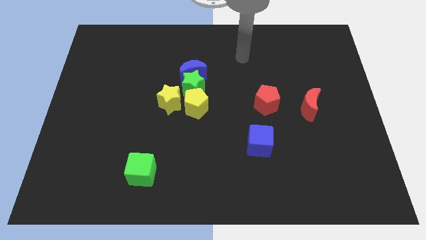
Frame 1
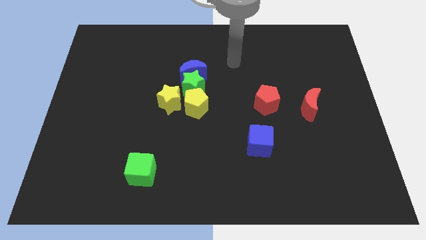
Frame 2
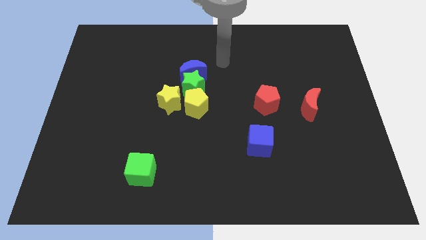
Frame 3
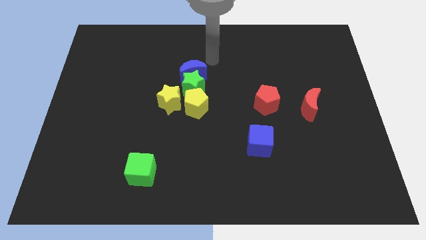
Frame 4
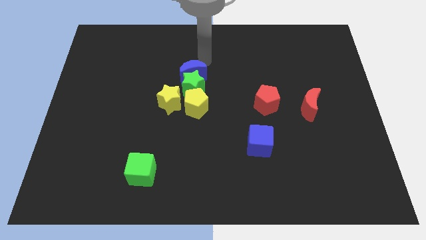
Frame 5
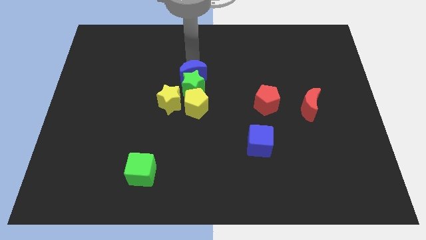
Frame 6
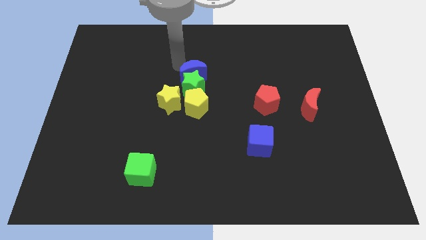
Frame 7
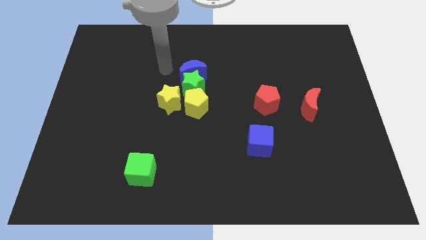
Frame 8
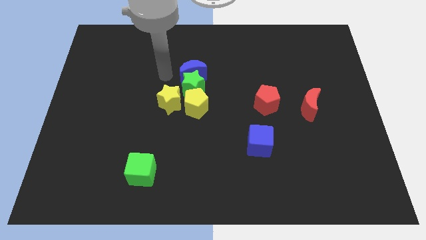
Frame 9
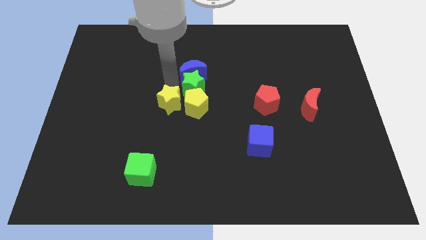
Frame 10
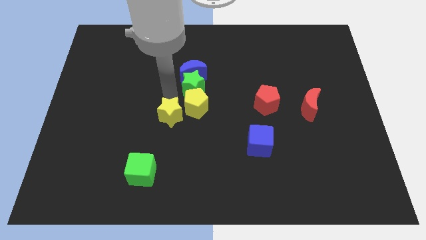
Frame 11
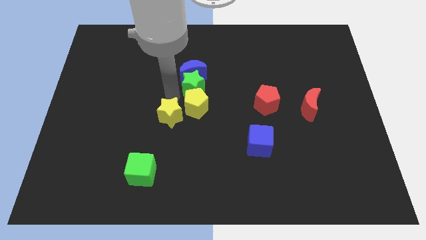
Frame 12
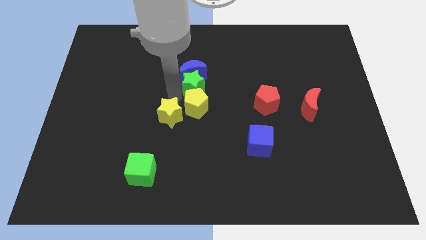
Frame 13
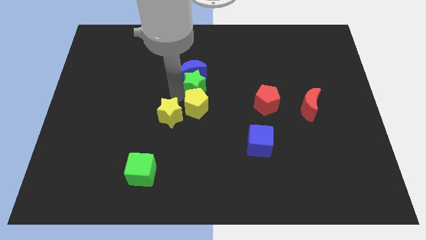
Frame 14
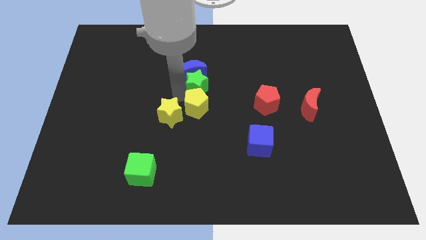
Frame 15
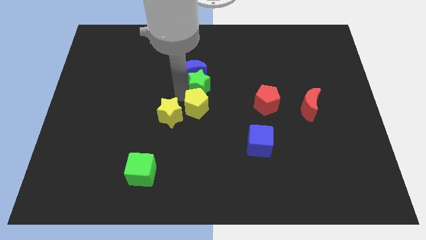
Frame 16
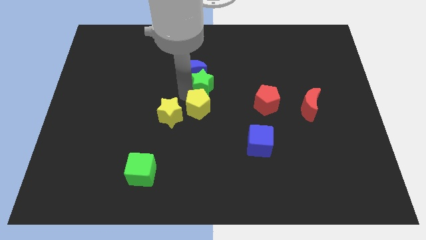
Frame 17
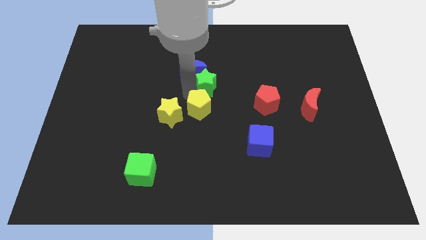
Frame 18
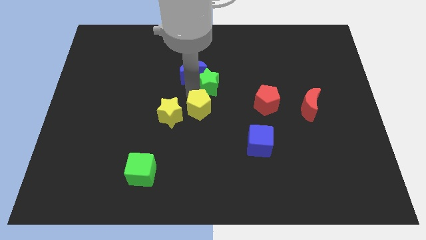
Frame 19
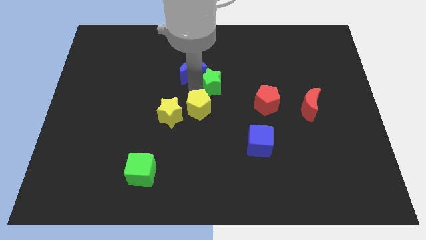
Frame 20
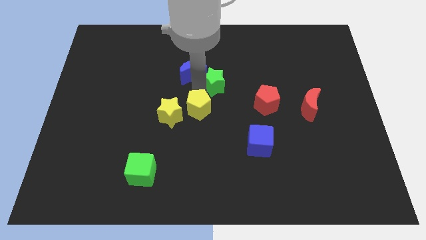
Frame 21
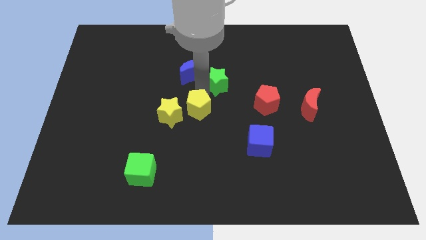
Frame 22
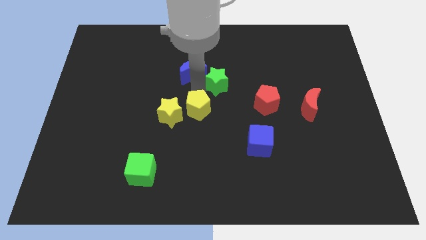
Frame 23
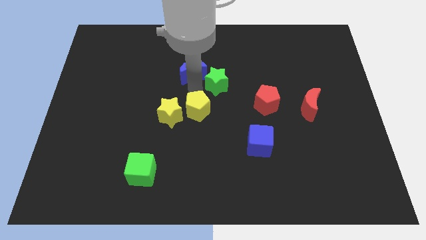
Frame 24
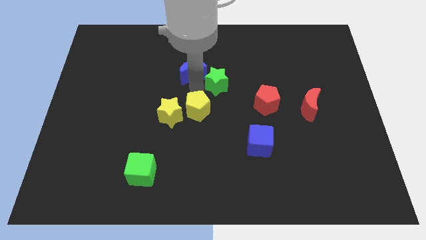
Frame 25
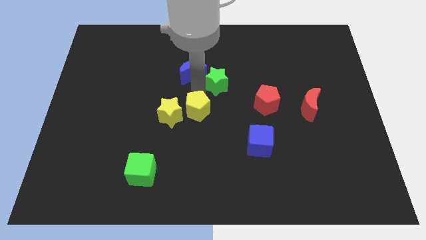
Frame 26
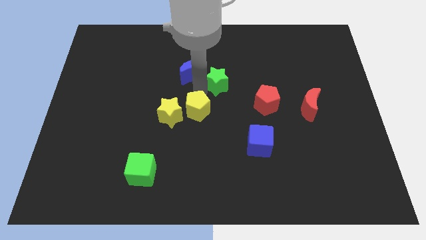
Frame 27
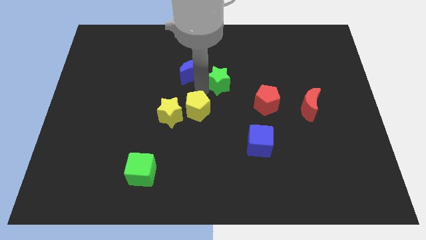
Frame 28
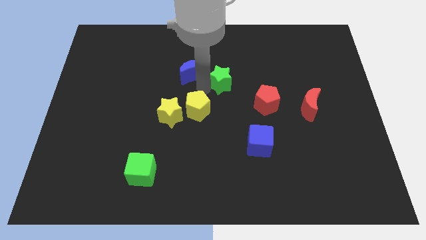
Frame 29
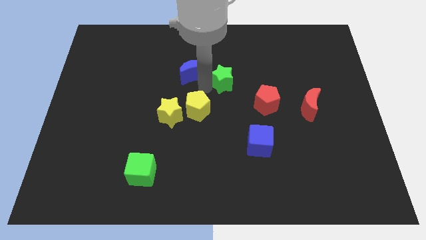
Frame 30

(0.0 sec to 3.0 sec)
pull the green star apart from the blue moon, yellow pentagon, and yellow star

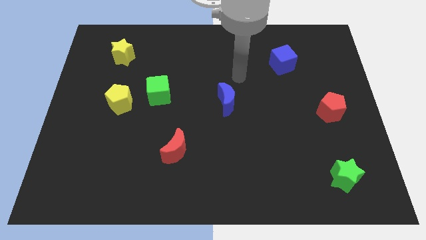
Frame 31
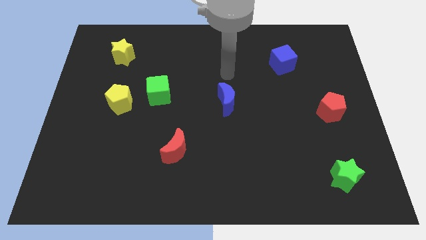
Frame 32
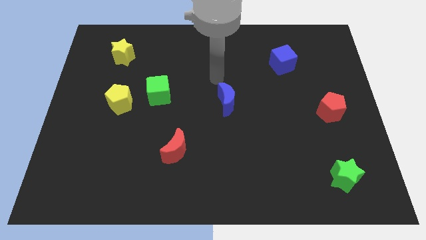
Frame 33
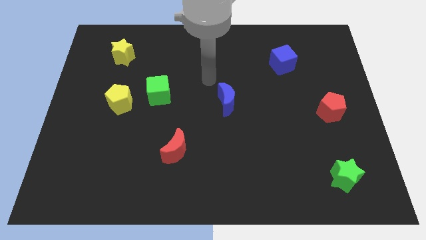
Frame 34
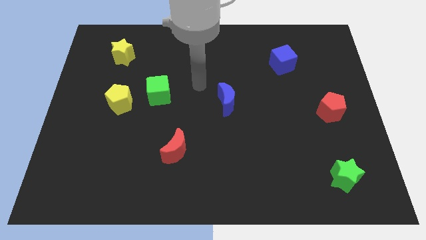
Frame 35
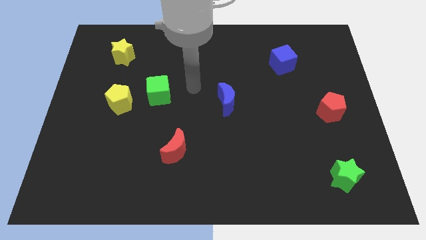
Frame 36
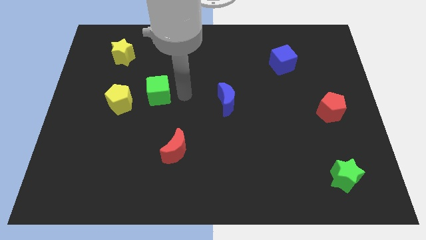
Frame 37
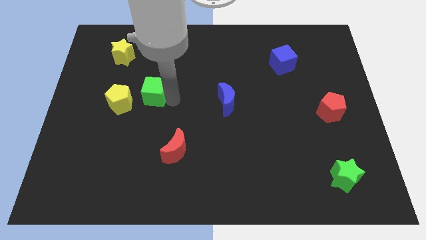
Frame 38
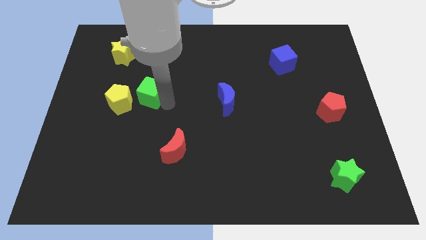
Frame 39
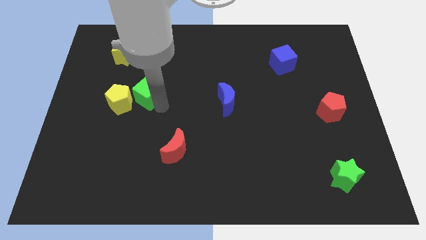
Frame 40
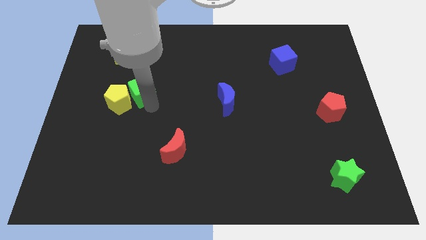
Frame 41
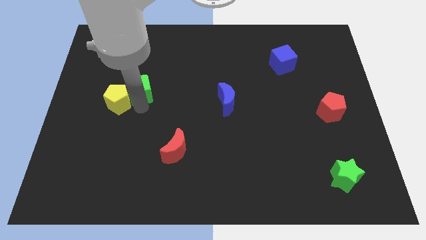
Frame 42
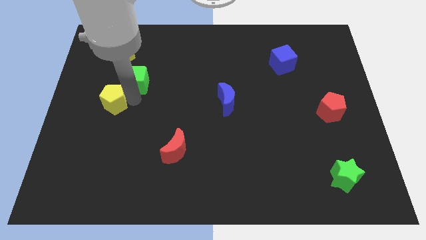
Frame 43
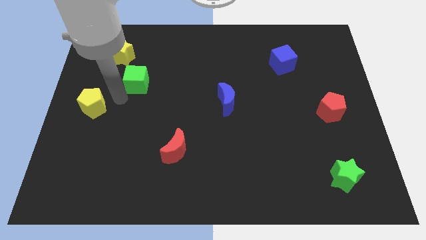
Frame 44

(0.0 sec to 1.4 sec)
pull the green cube apart from the yellow pentagon

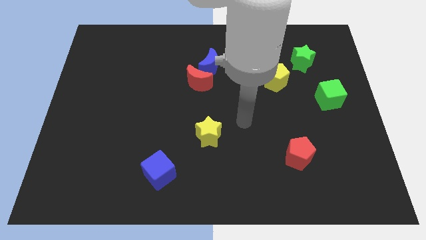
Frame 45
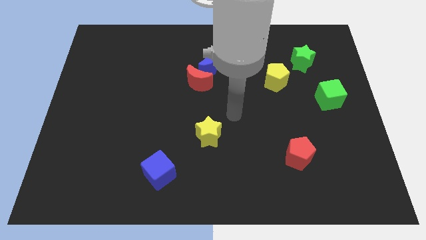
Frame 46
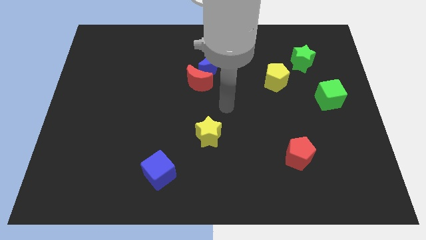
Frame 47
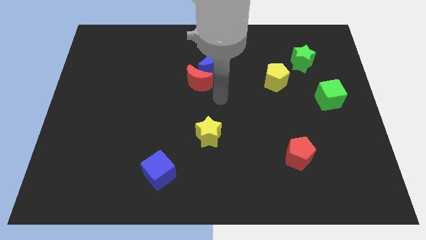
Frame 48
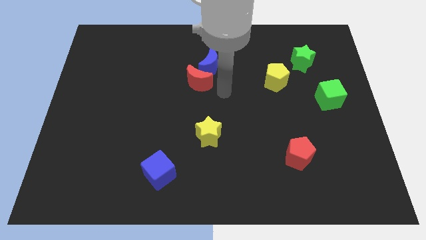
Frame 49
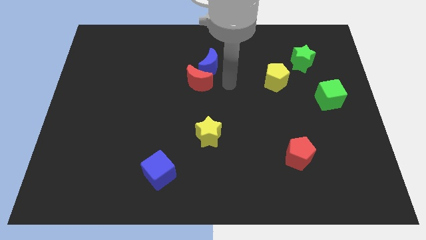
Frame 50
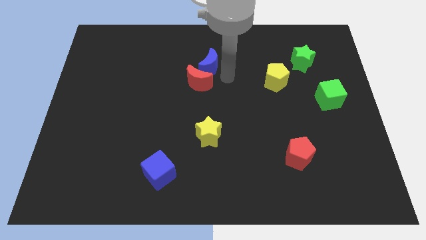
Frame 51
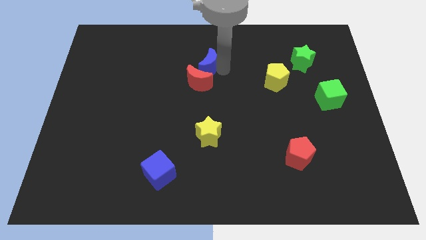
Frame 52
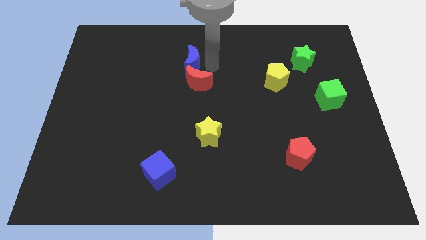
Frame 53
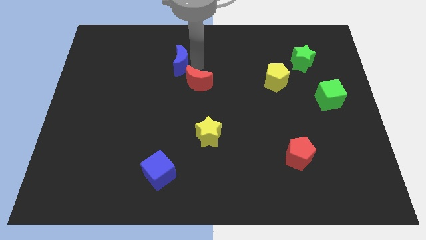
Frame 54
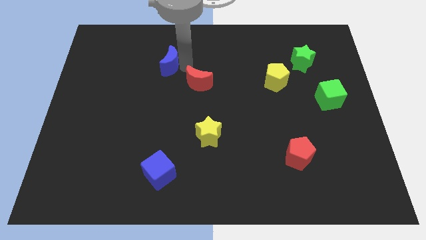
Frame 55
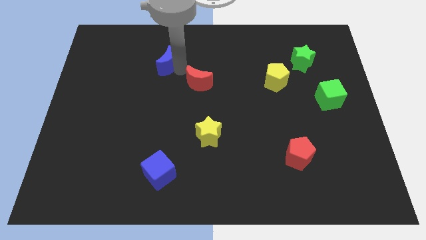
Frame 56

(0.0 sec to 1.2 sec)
separate the red moon from the blue moon

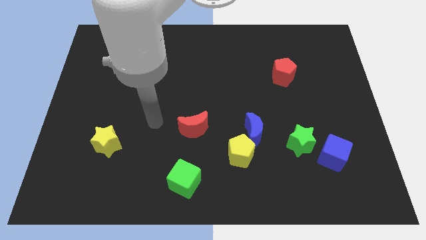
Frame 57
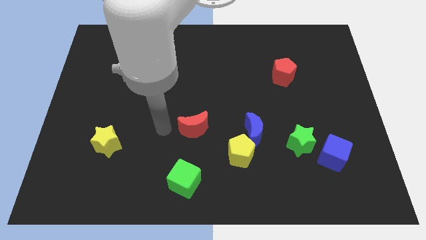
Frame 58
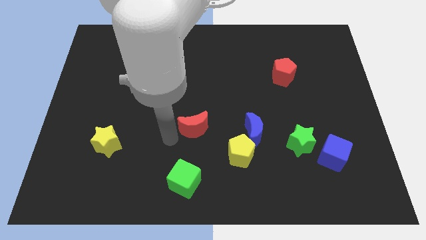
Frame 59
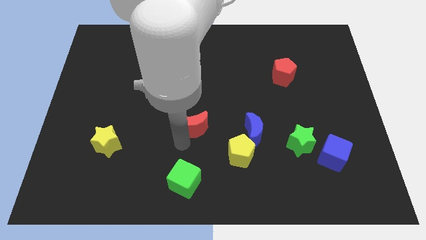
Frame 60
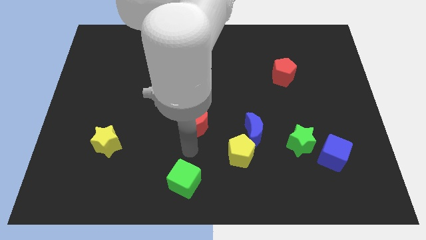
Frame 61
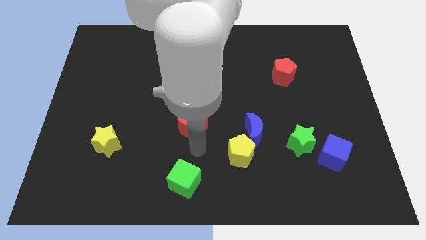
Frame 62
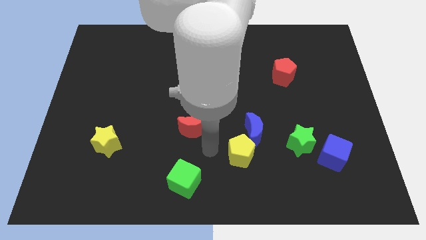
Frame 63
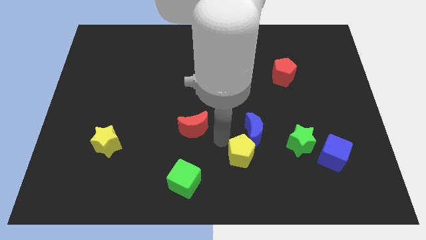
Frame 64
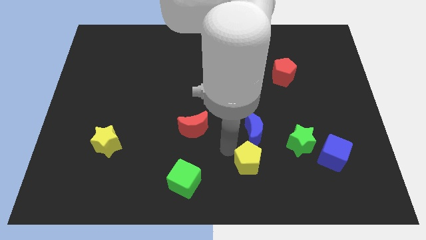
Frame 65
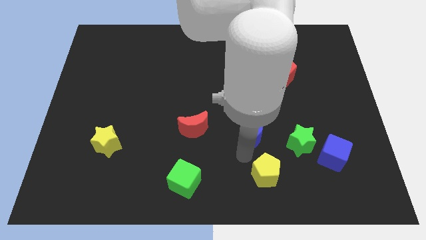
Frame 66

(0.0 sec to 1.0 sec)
pull the blue moon apart from the yellow pentagon

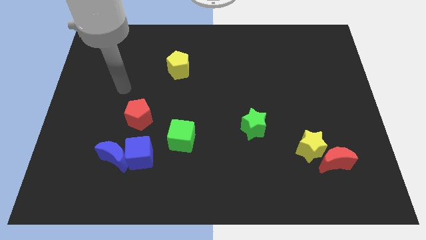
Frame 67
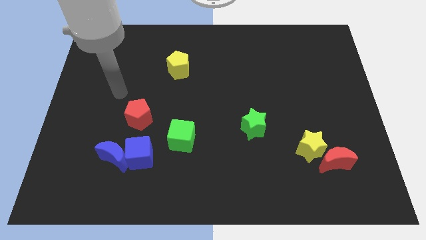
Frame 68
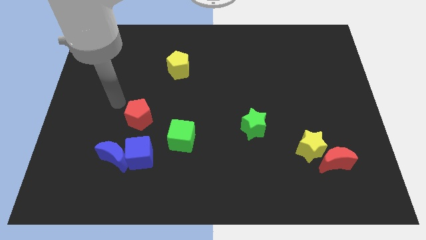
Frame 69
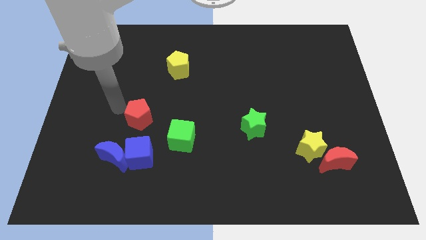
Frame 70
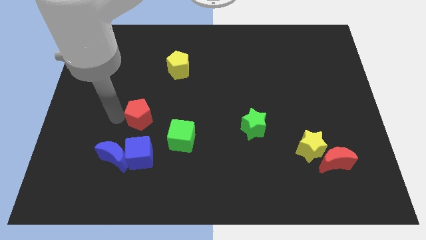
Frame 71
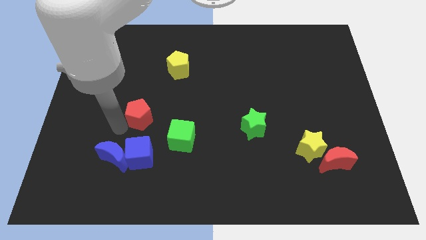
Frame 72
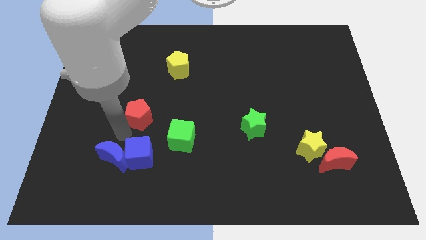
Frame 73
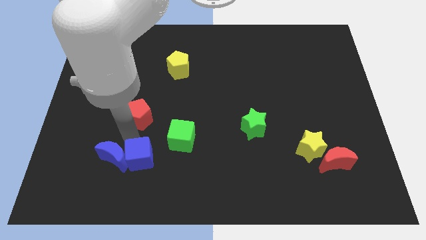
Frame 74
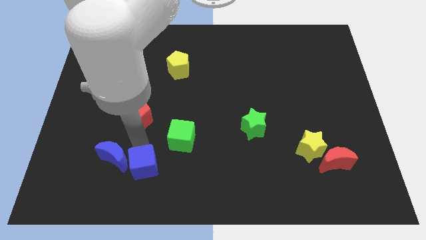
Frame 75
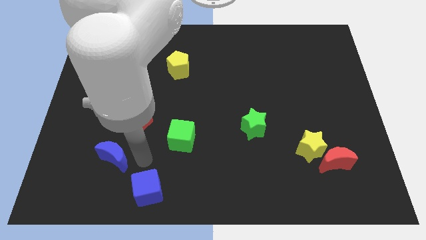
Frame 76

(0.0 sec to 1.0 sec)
move the blue moon away from the blue cube

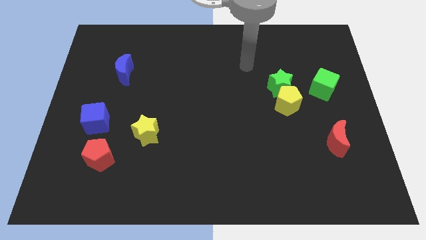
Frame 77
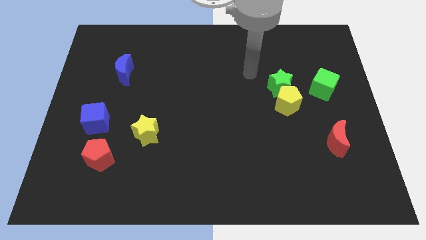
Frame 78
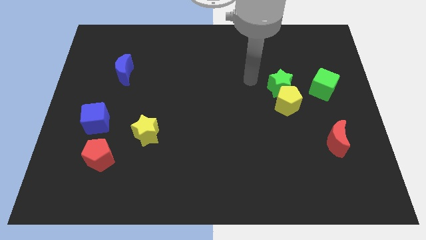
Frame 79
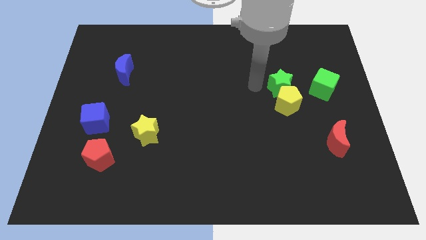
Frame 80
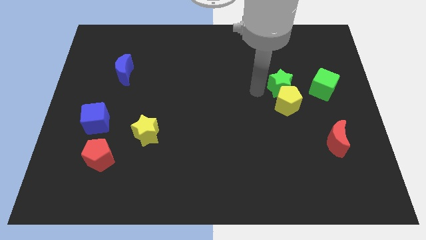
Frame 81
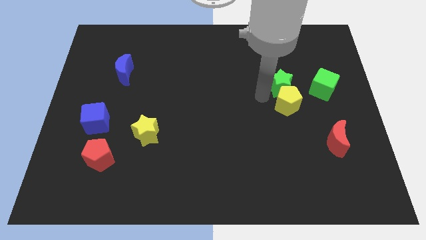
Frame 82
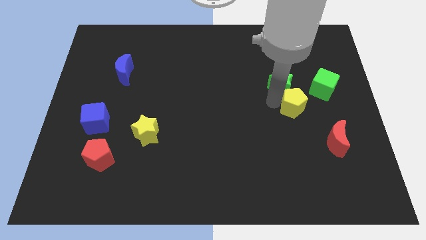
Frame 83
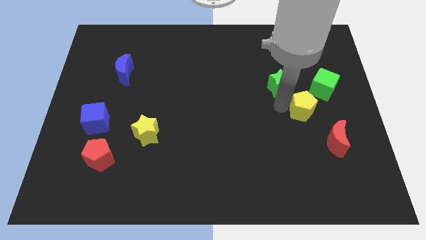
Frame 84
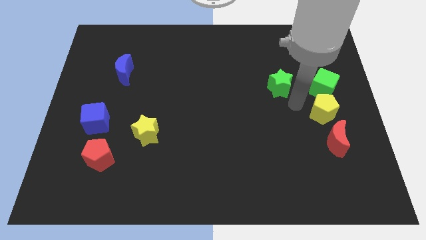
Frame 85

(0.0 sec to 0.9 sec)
move the green star away from the yellow pentagon

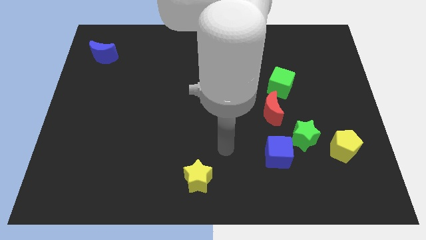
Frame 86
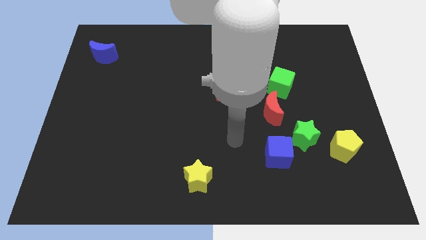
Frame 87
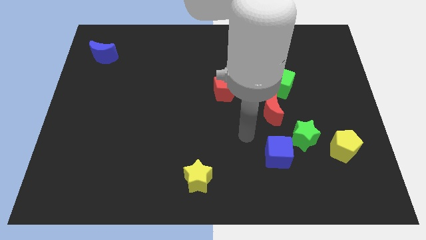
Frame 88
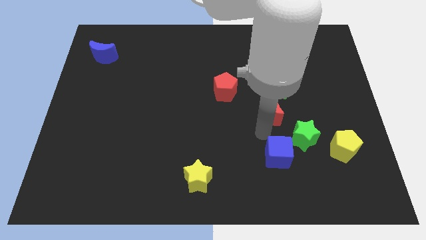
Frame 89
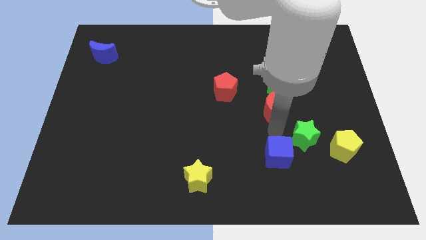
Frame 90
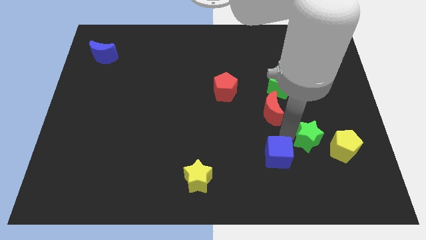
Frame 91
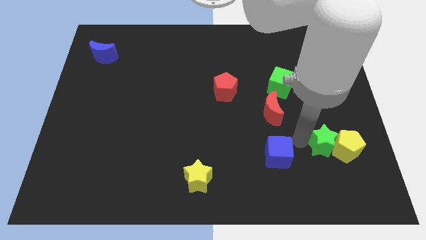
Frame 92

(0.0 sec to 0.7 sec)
separate the blue cube from the green star

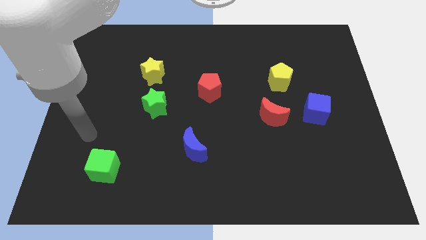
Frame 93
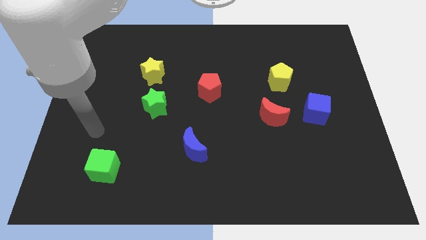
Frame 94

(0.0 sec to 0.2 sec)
separate the green star from the yellow star

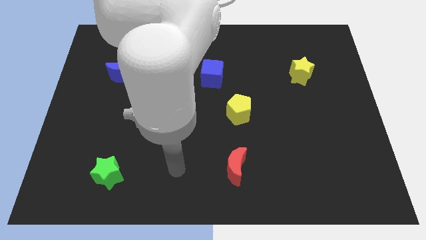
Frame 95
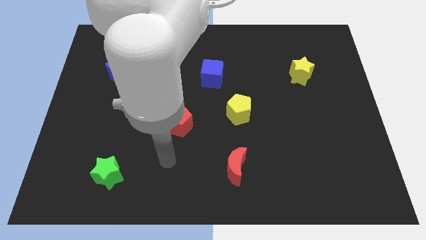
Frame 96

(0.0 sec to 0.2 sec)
move the red pentagon away from the green cube
